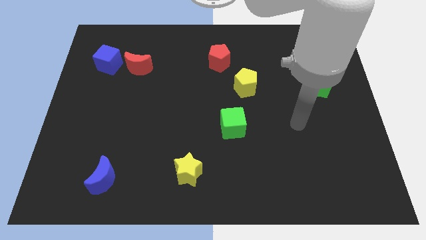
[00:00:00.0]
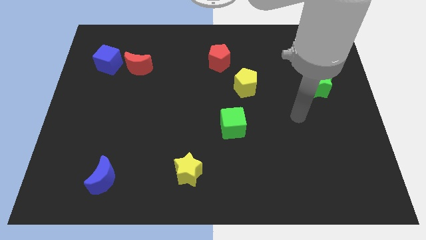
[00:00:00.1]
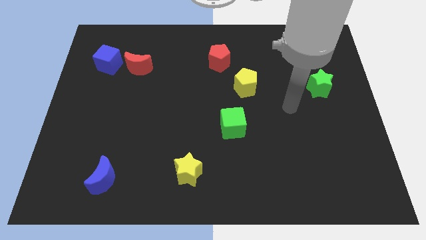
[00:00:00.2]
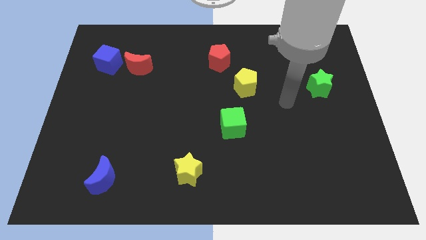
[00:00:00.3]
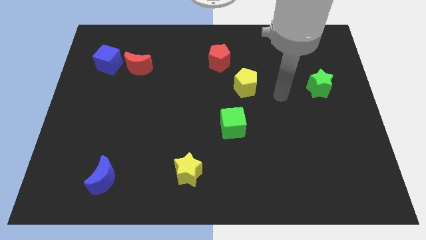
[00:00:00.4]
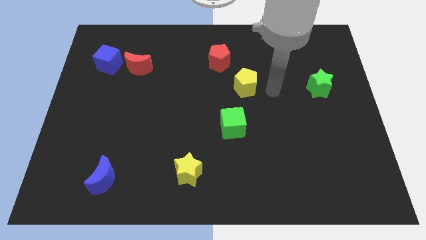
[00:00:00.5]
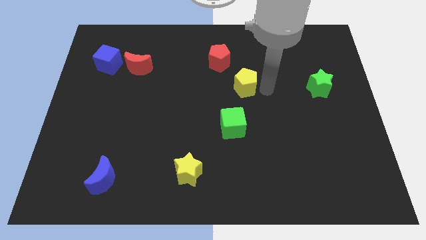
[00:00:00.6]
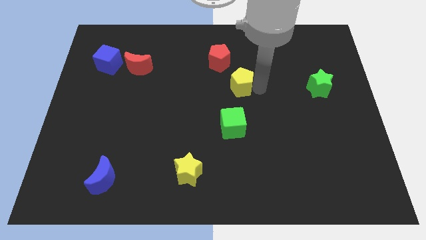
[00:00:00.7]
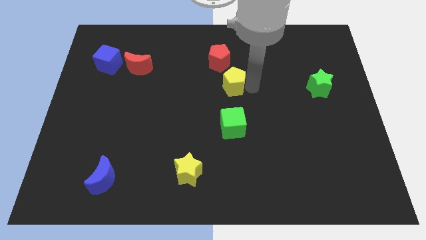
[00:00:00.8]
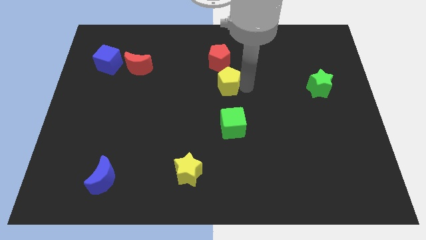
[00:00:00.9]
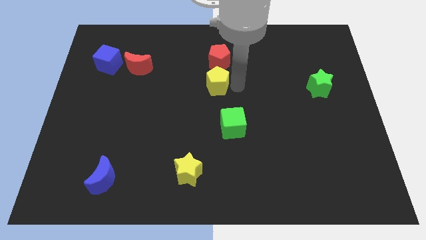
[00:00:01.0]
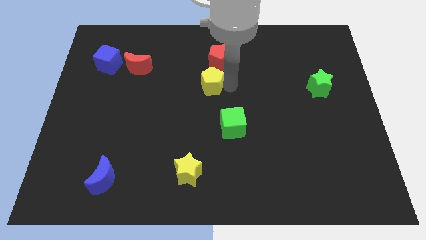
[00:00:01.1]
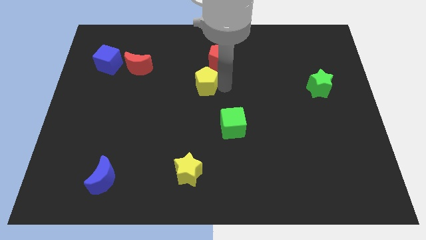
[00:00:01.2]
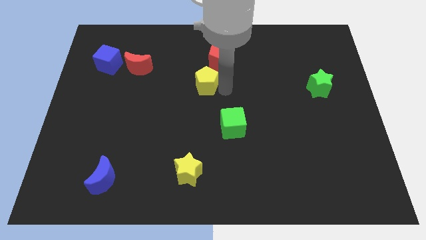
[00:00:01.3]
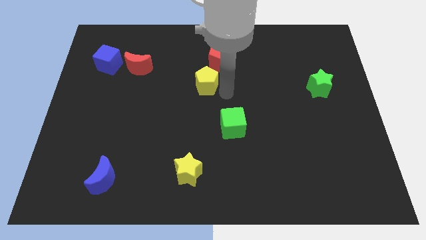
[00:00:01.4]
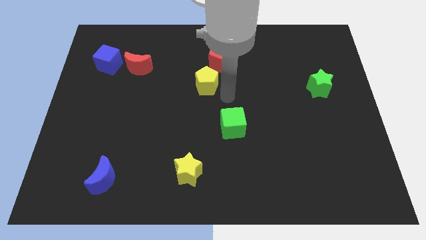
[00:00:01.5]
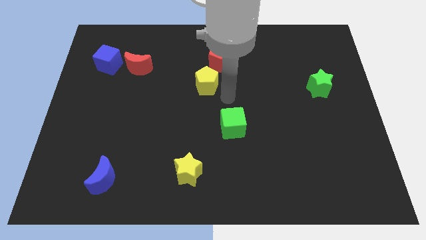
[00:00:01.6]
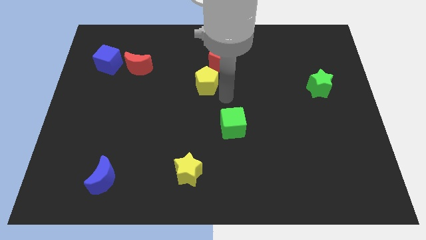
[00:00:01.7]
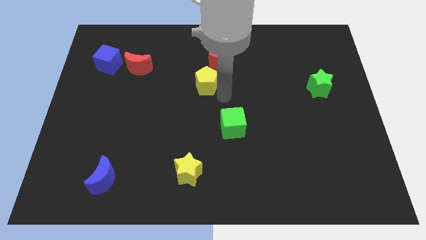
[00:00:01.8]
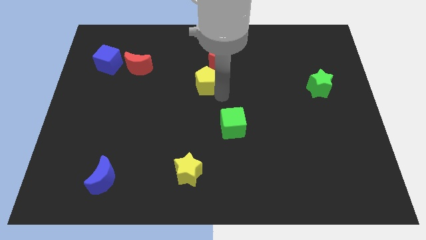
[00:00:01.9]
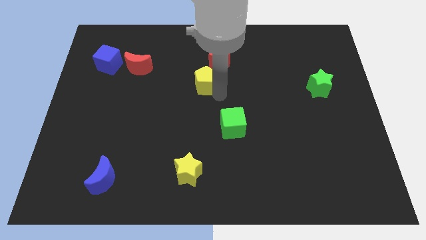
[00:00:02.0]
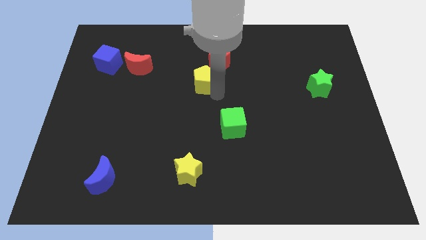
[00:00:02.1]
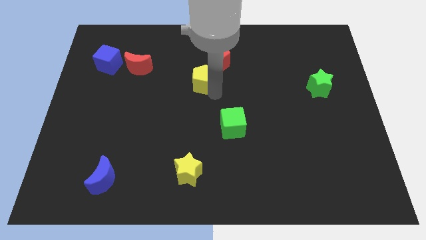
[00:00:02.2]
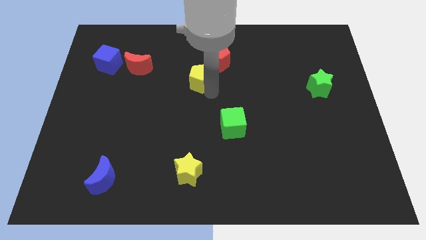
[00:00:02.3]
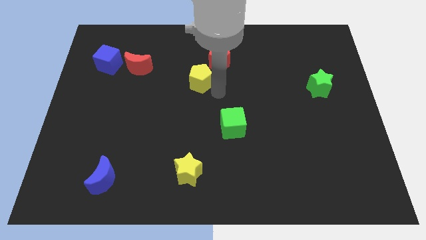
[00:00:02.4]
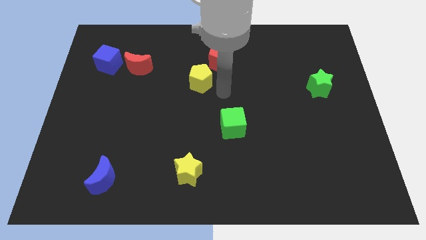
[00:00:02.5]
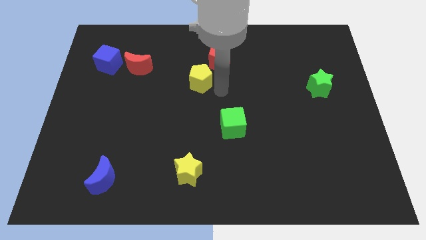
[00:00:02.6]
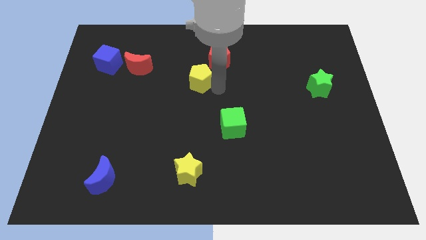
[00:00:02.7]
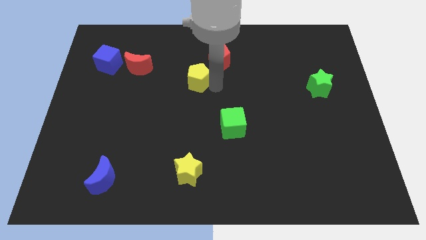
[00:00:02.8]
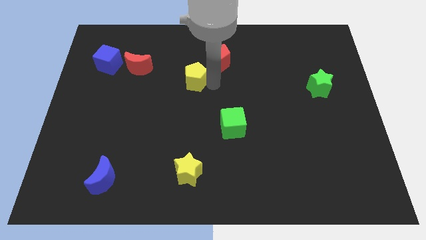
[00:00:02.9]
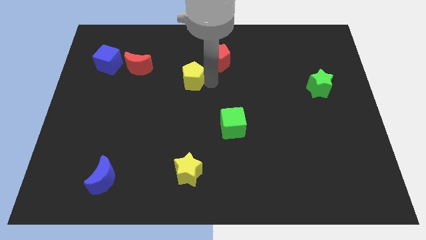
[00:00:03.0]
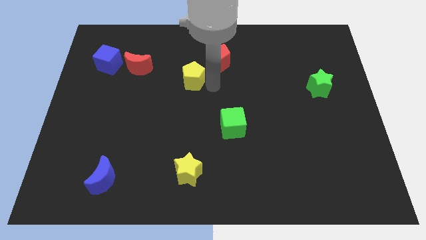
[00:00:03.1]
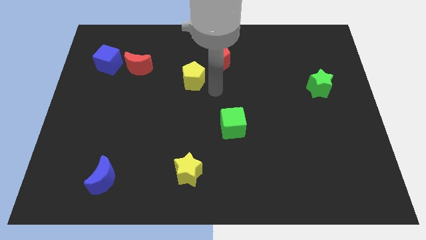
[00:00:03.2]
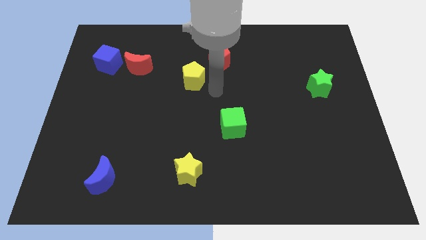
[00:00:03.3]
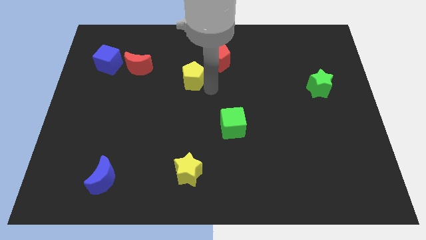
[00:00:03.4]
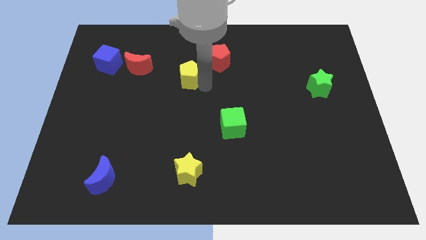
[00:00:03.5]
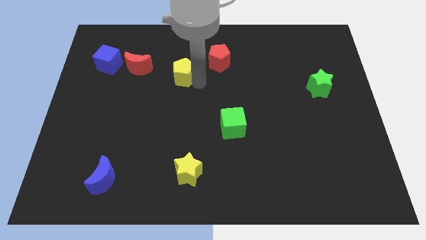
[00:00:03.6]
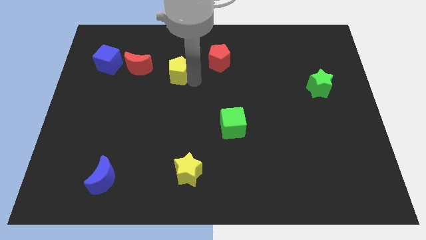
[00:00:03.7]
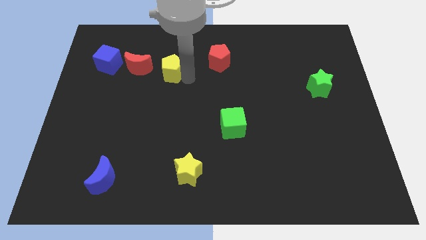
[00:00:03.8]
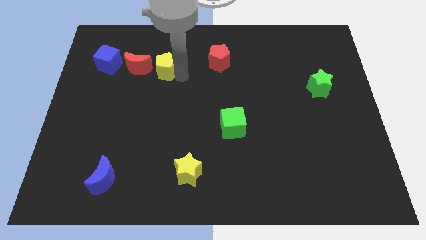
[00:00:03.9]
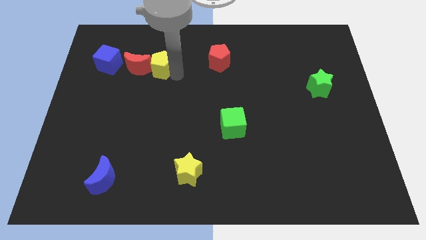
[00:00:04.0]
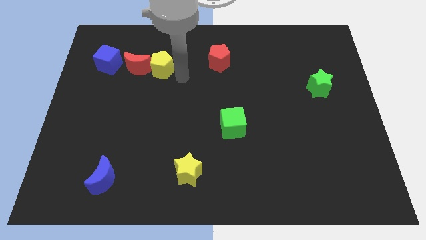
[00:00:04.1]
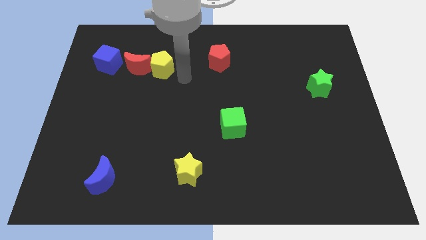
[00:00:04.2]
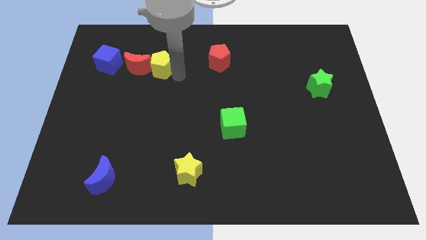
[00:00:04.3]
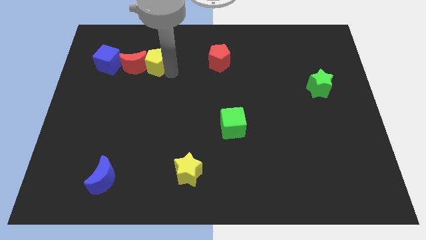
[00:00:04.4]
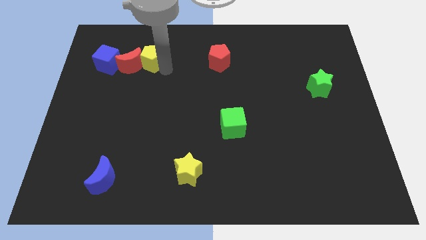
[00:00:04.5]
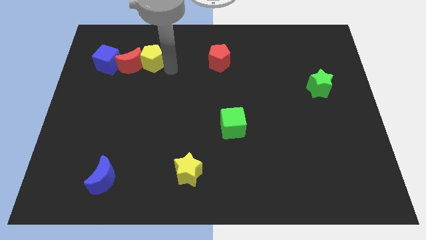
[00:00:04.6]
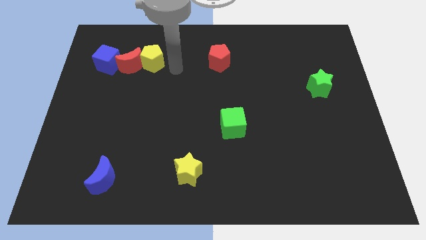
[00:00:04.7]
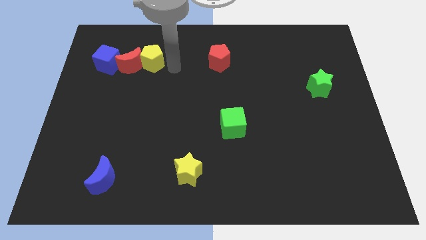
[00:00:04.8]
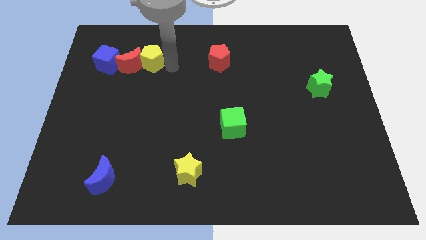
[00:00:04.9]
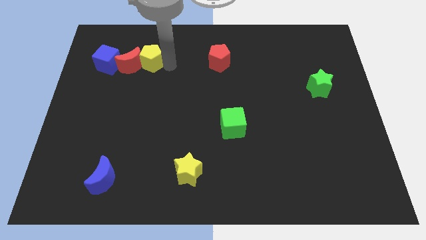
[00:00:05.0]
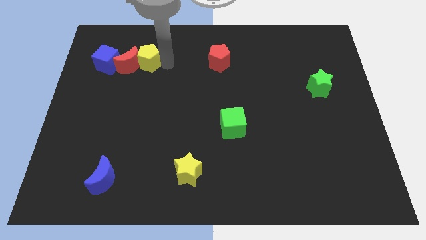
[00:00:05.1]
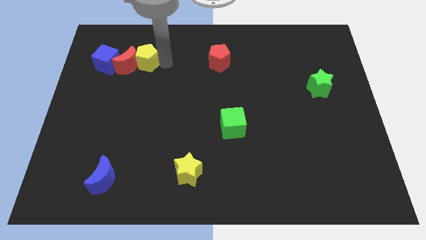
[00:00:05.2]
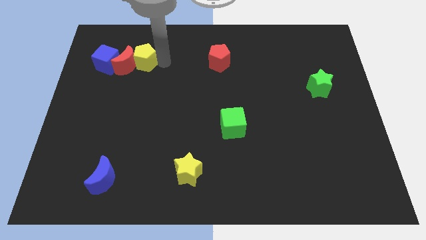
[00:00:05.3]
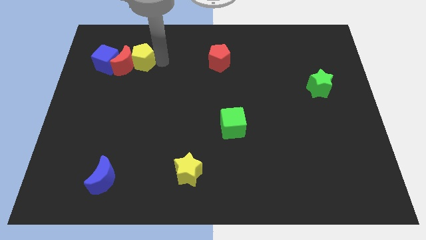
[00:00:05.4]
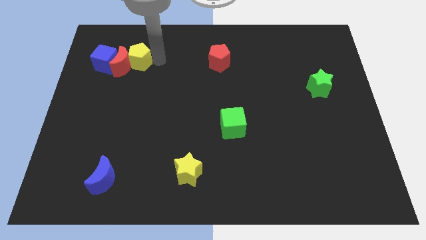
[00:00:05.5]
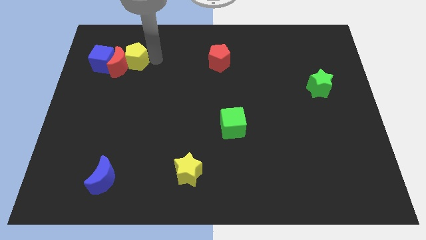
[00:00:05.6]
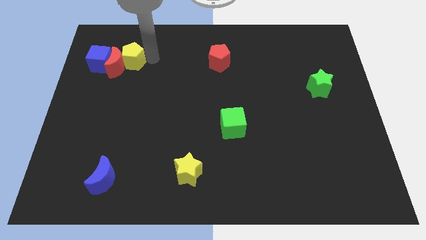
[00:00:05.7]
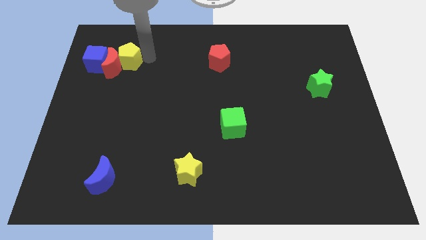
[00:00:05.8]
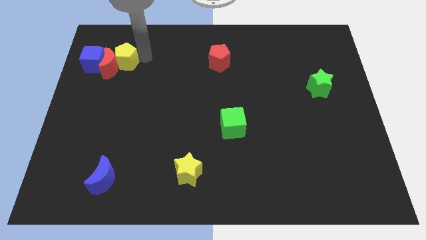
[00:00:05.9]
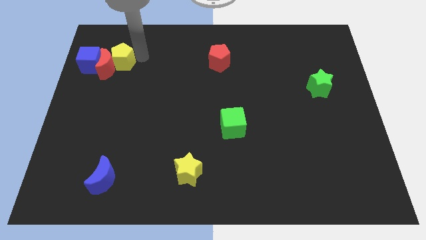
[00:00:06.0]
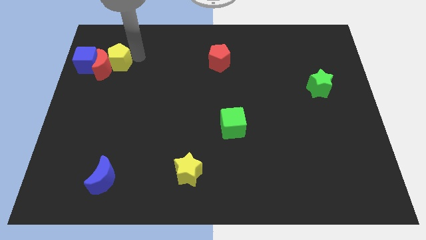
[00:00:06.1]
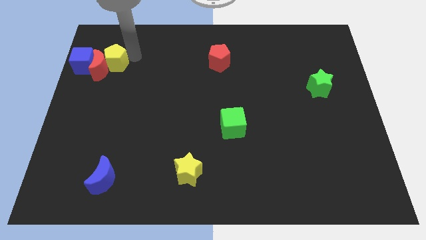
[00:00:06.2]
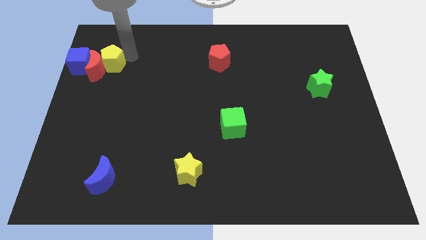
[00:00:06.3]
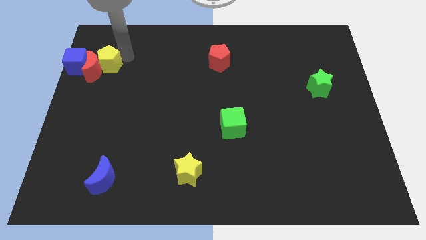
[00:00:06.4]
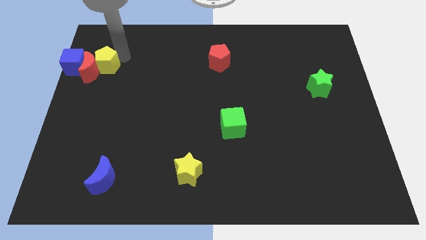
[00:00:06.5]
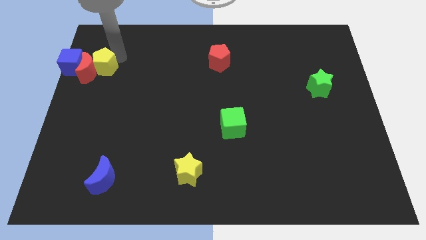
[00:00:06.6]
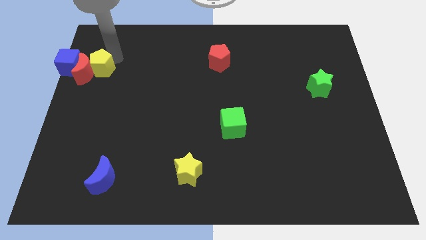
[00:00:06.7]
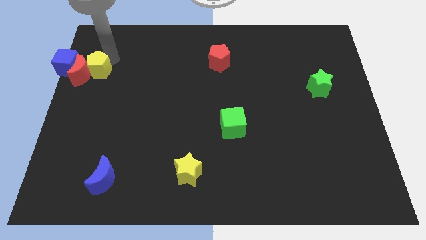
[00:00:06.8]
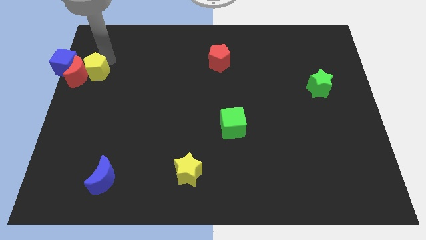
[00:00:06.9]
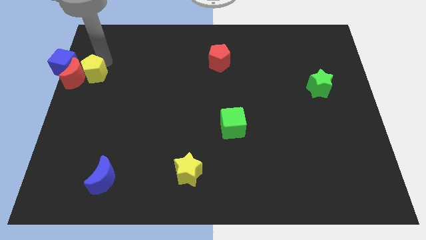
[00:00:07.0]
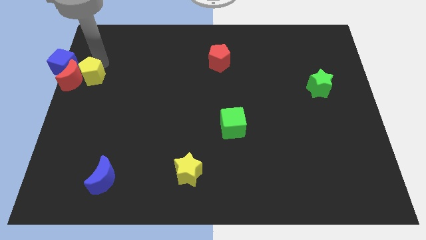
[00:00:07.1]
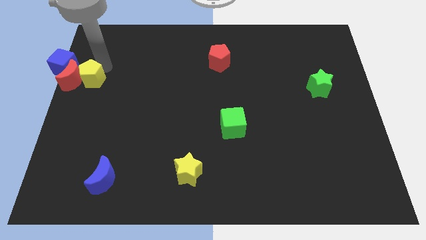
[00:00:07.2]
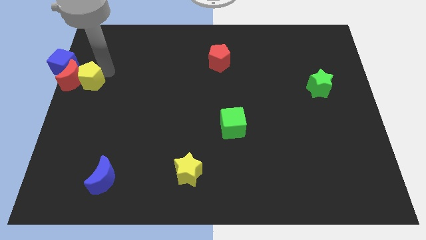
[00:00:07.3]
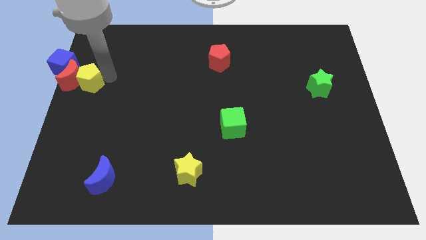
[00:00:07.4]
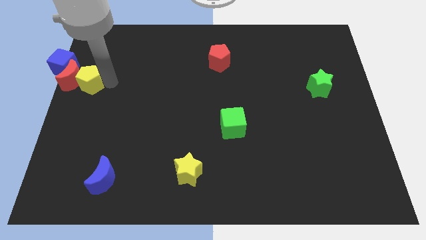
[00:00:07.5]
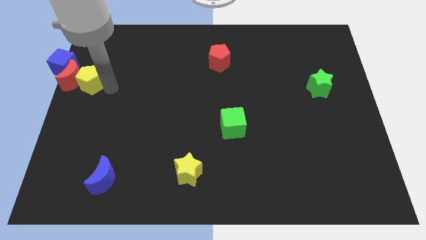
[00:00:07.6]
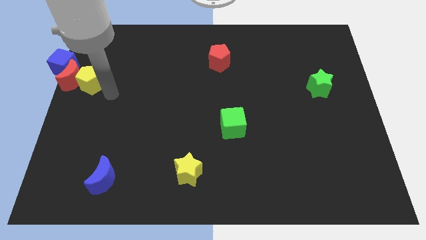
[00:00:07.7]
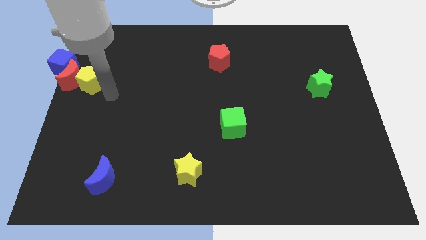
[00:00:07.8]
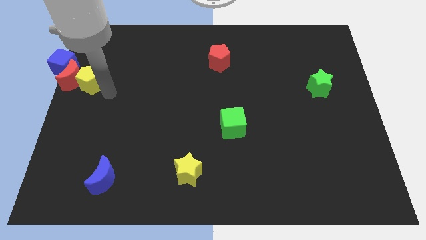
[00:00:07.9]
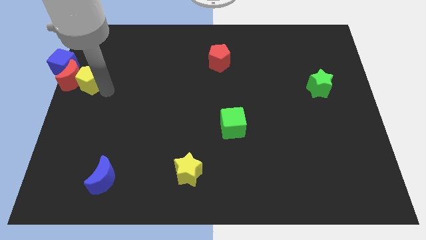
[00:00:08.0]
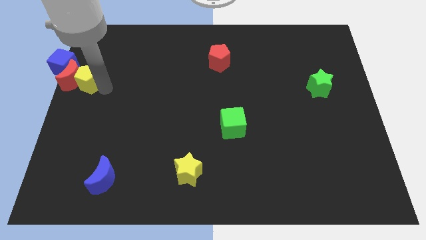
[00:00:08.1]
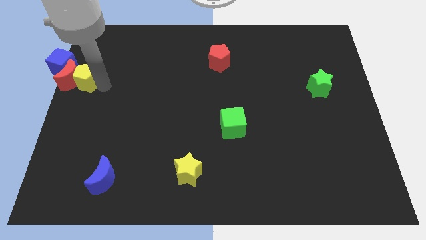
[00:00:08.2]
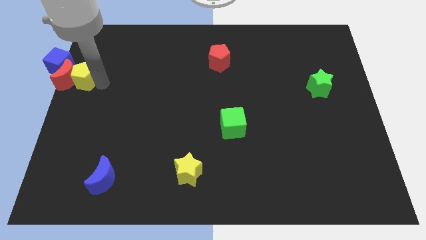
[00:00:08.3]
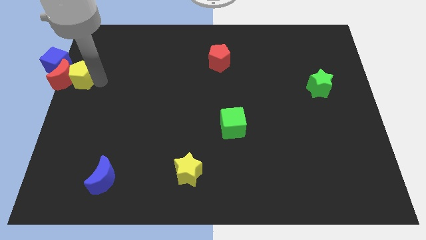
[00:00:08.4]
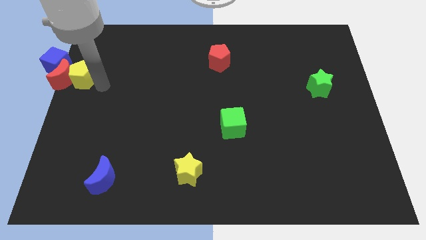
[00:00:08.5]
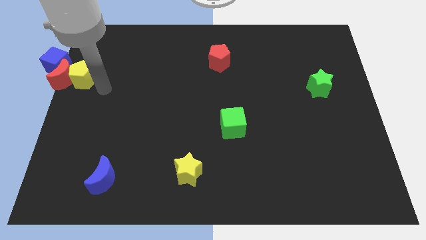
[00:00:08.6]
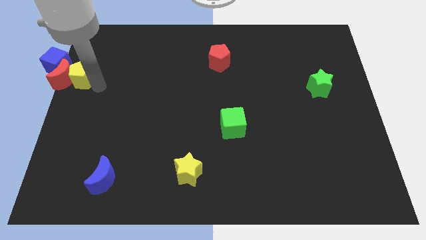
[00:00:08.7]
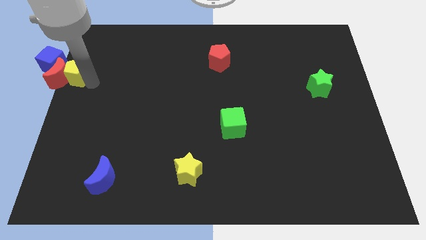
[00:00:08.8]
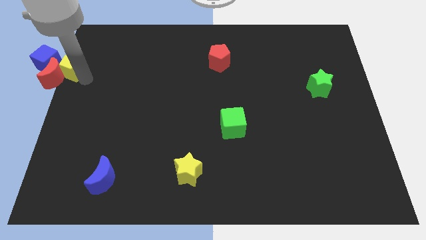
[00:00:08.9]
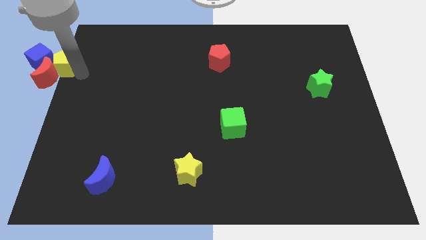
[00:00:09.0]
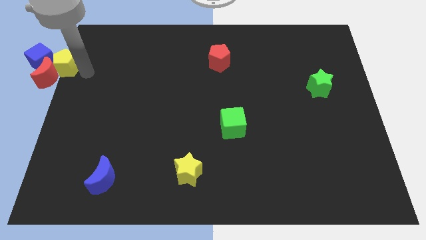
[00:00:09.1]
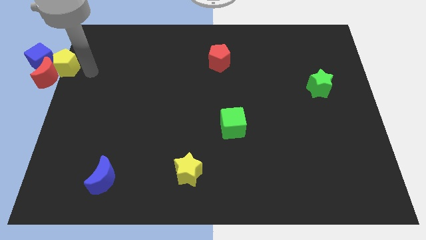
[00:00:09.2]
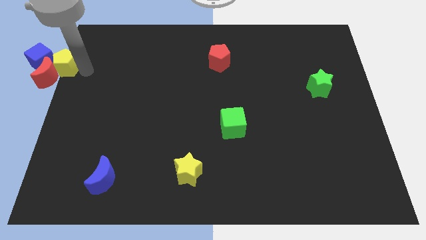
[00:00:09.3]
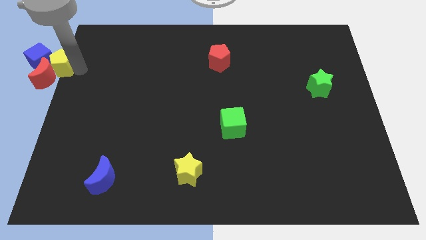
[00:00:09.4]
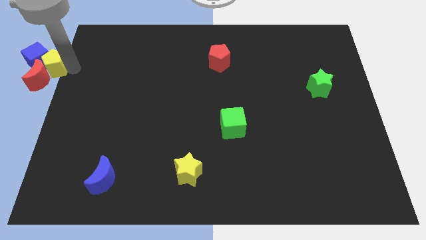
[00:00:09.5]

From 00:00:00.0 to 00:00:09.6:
slide the yellow pentagon towards the blue cube
